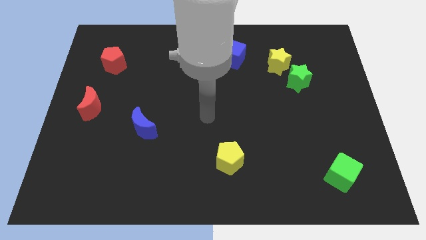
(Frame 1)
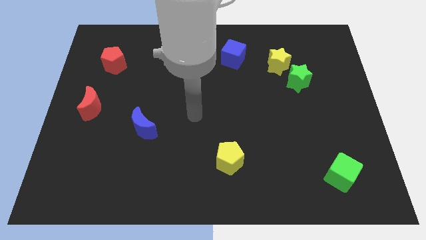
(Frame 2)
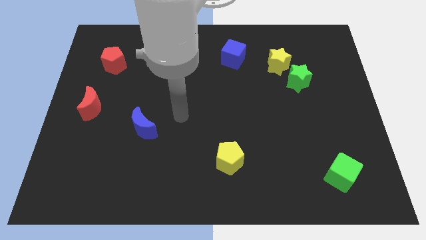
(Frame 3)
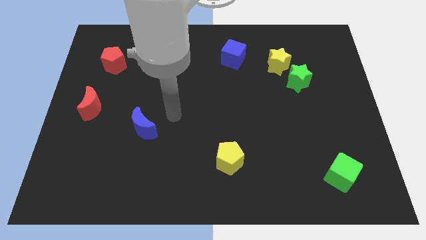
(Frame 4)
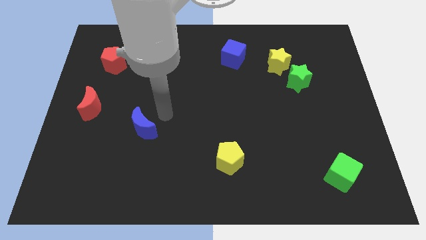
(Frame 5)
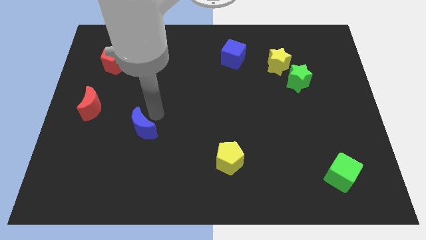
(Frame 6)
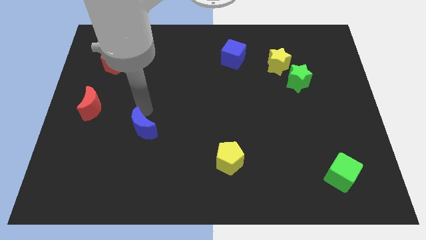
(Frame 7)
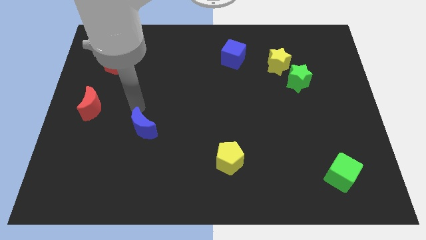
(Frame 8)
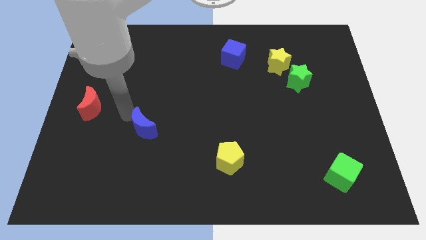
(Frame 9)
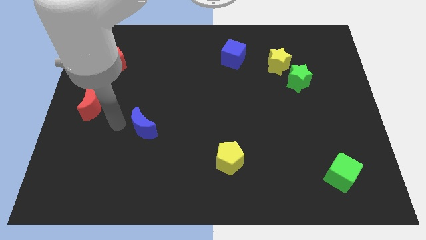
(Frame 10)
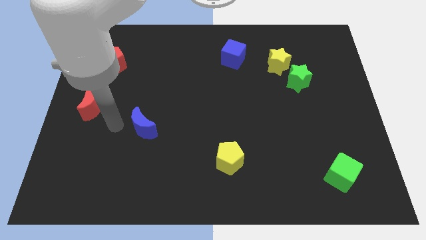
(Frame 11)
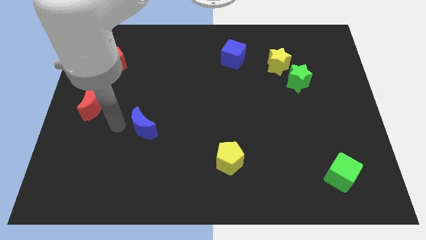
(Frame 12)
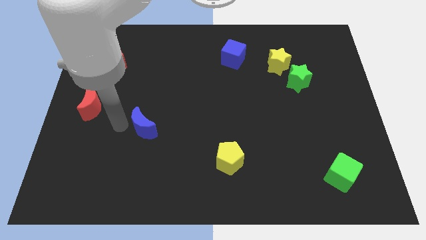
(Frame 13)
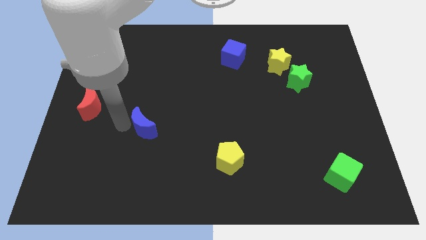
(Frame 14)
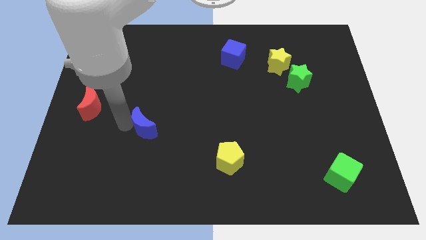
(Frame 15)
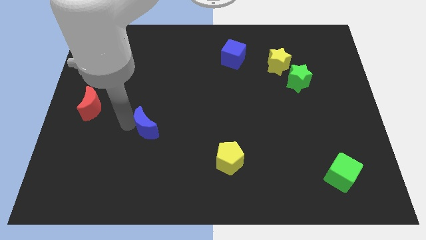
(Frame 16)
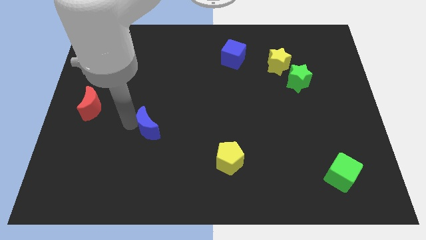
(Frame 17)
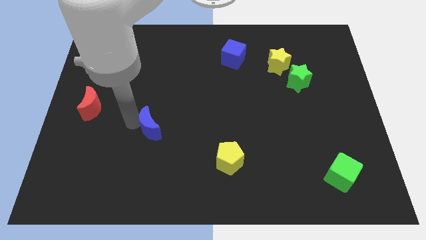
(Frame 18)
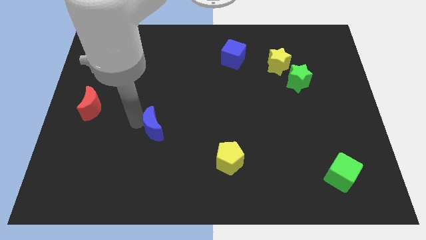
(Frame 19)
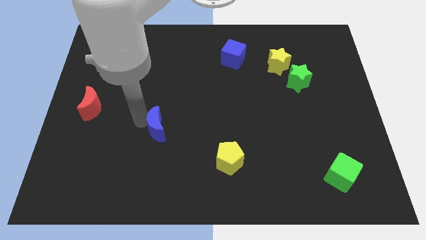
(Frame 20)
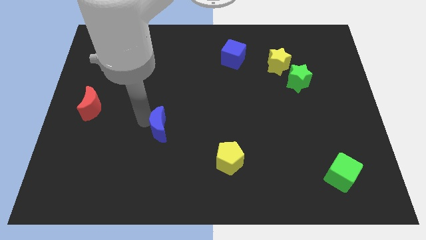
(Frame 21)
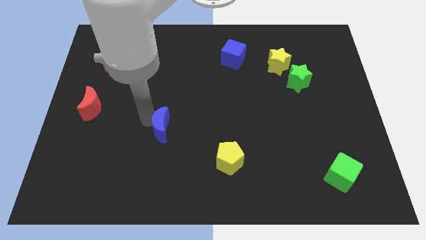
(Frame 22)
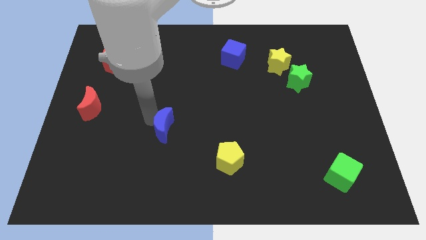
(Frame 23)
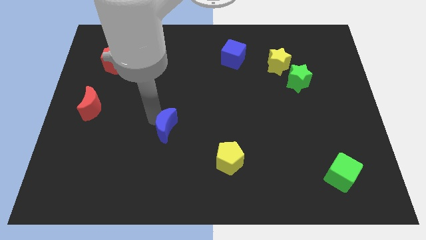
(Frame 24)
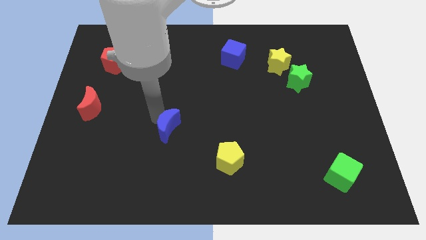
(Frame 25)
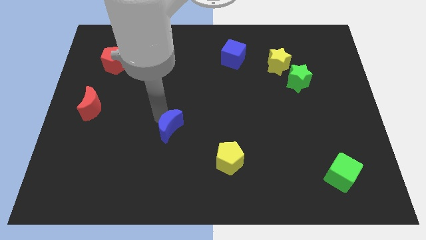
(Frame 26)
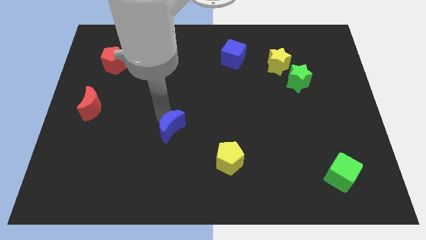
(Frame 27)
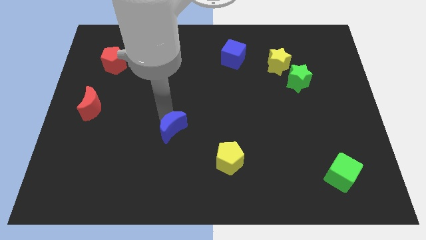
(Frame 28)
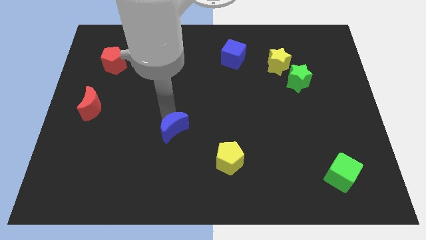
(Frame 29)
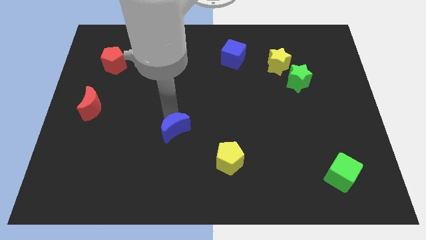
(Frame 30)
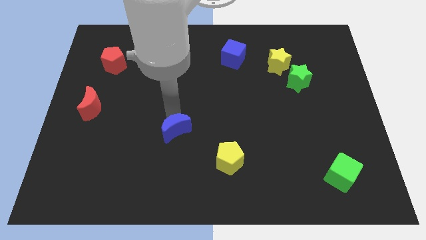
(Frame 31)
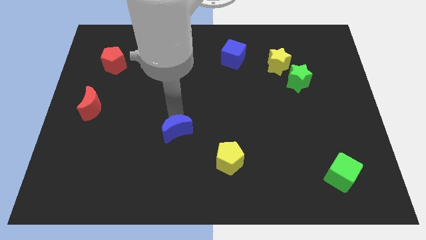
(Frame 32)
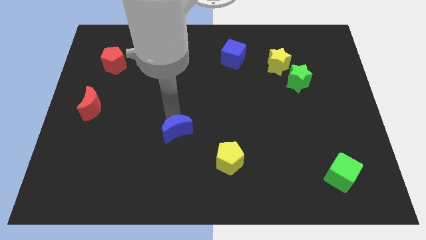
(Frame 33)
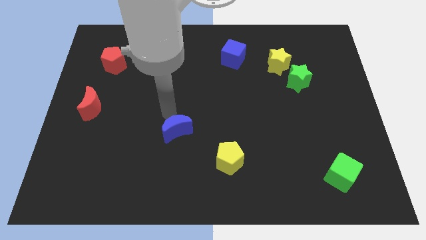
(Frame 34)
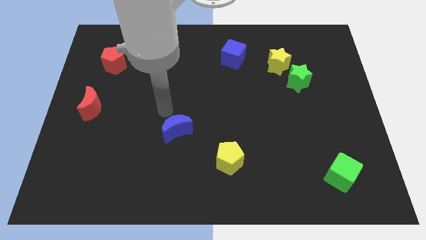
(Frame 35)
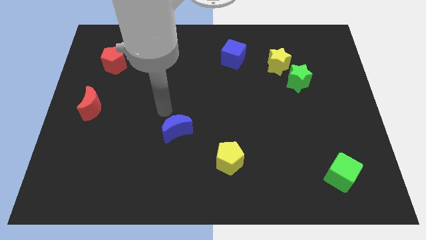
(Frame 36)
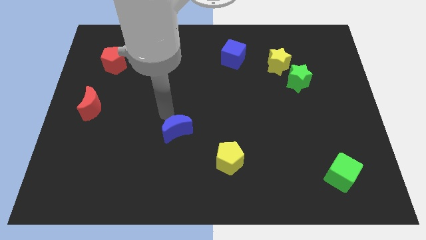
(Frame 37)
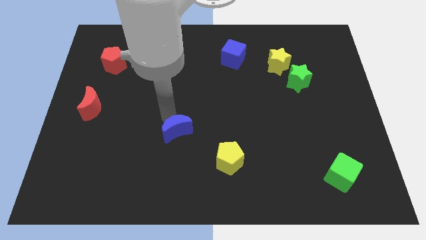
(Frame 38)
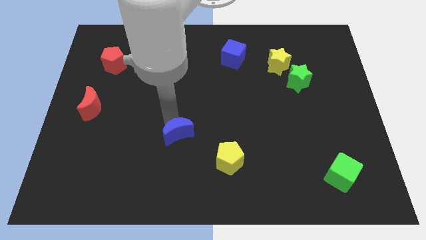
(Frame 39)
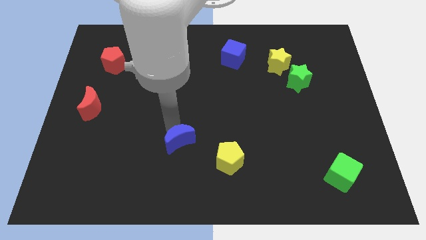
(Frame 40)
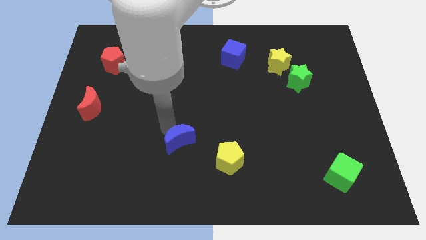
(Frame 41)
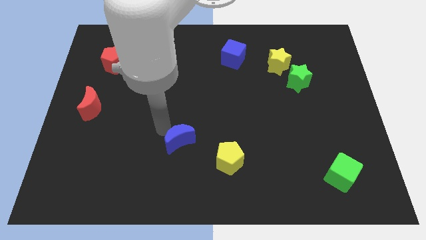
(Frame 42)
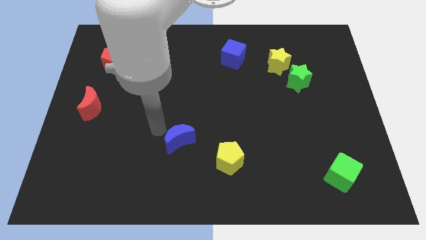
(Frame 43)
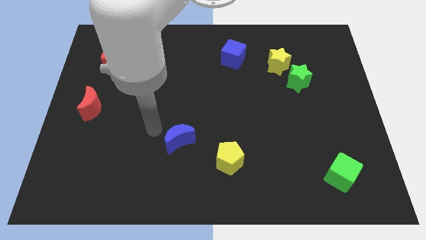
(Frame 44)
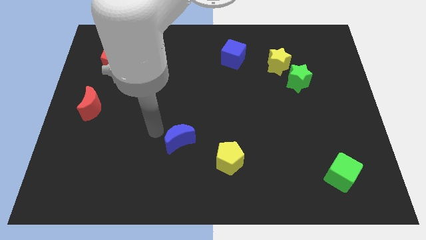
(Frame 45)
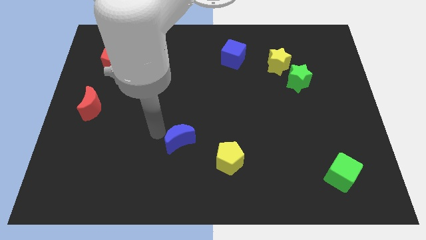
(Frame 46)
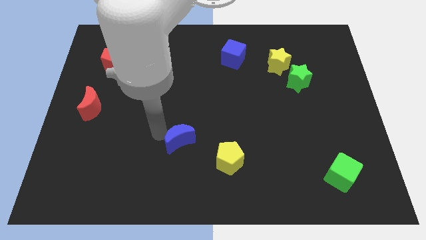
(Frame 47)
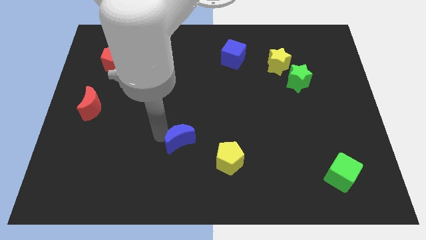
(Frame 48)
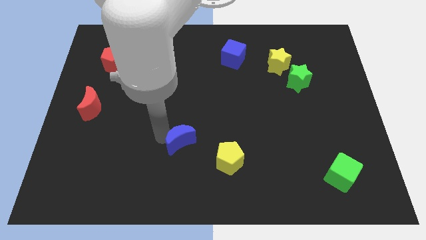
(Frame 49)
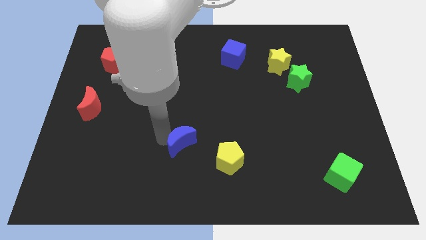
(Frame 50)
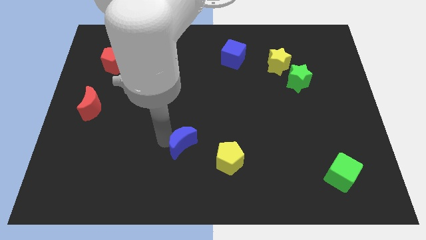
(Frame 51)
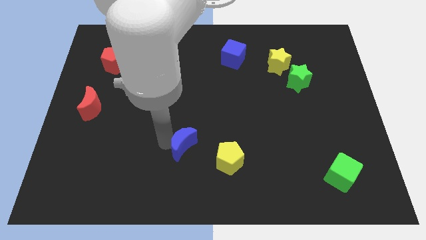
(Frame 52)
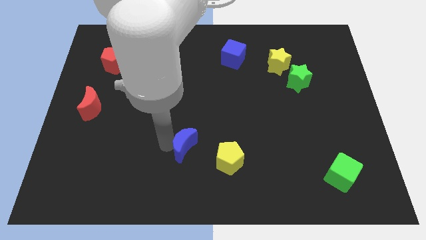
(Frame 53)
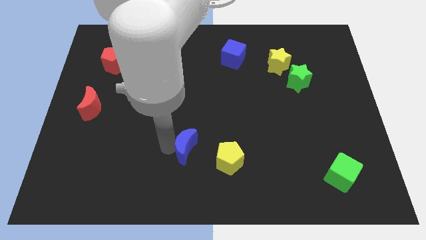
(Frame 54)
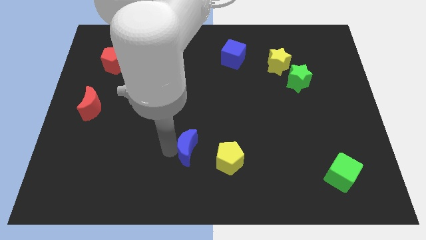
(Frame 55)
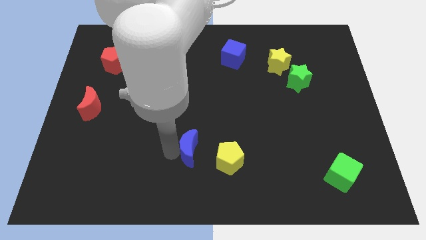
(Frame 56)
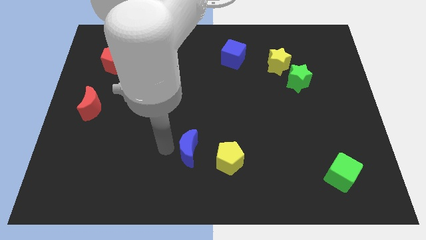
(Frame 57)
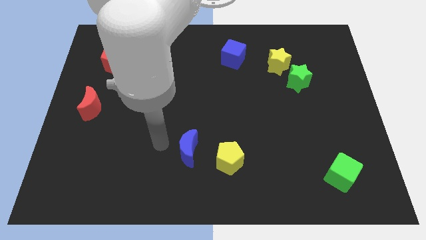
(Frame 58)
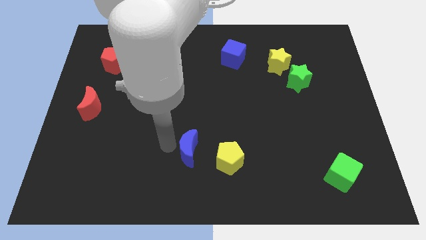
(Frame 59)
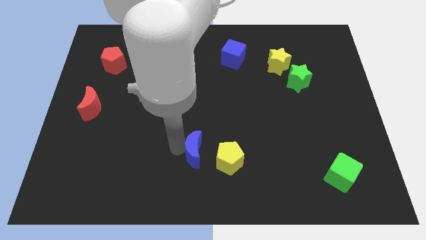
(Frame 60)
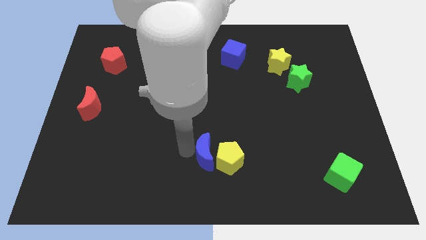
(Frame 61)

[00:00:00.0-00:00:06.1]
move the blue moon to the yellow pentagon

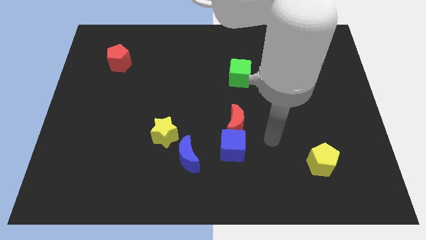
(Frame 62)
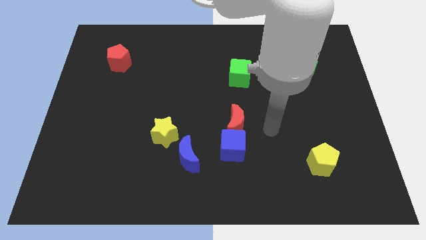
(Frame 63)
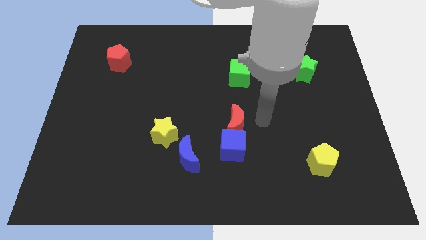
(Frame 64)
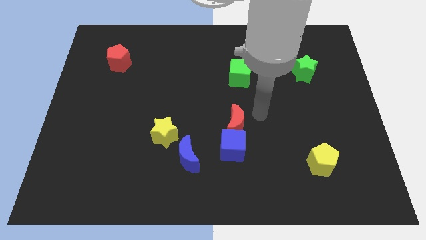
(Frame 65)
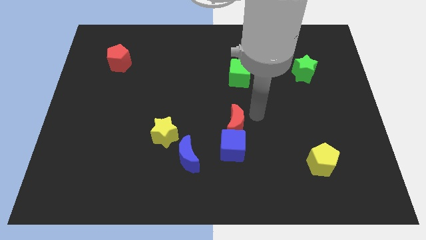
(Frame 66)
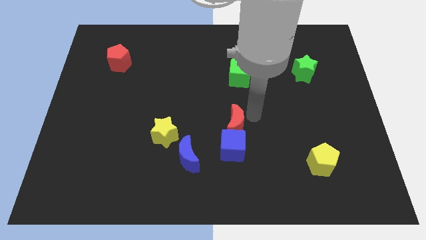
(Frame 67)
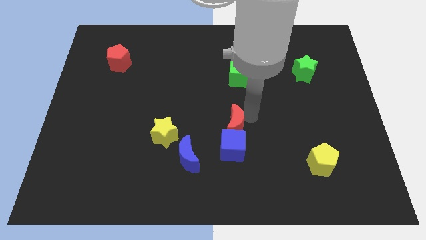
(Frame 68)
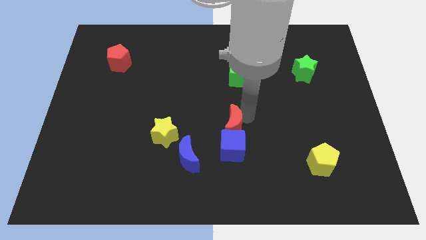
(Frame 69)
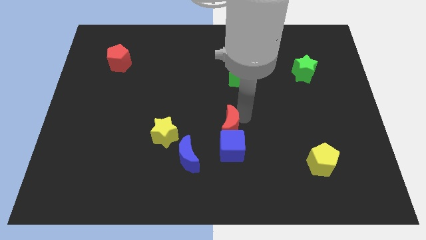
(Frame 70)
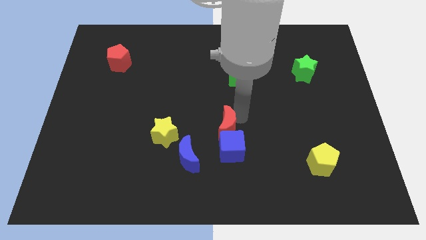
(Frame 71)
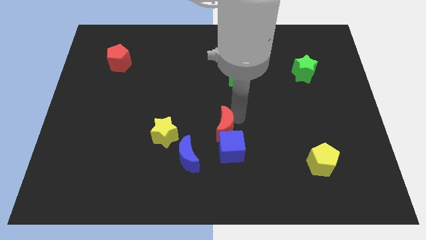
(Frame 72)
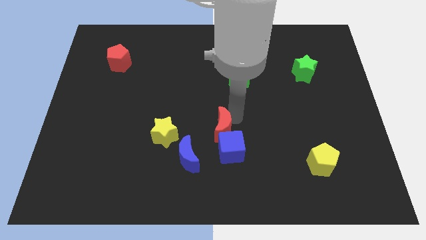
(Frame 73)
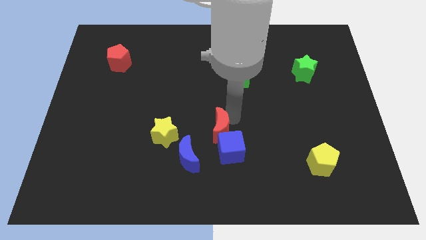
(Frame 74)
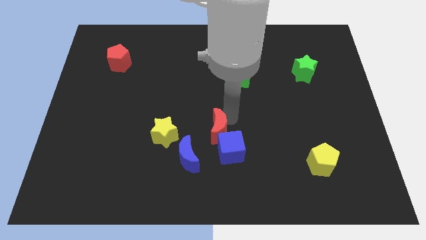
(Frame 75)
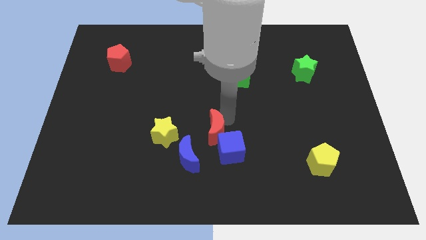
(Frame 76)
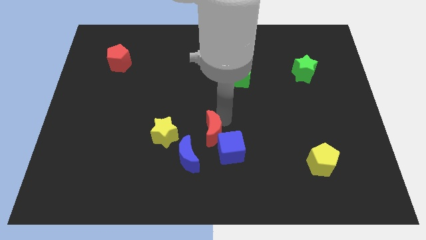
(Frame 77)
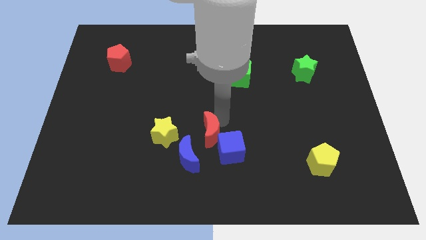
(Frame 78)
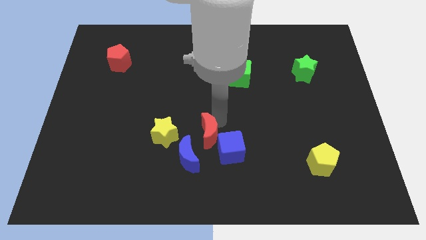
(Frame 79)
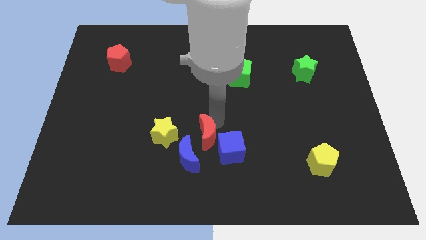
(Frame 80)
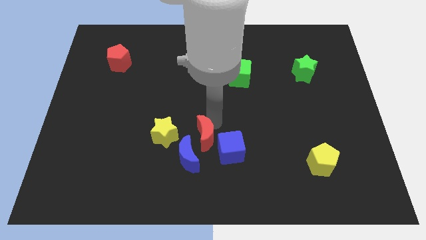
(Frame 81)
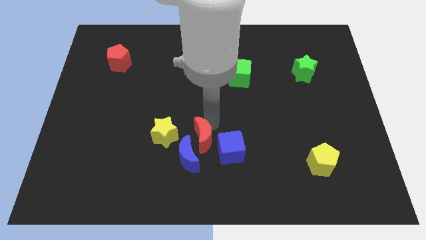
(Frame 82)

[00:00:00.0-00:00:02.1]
move the red moon close to the blue moon
